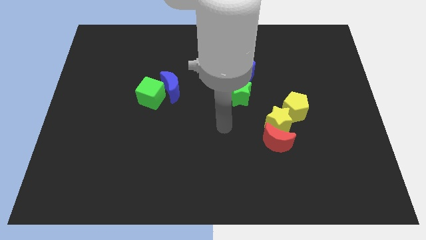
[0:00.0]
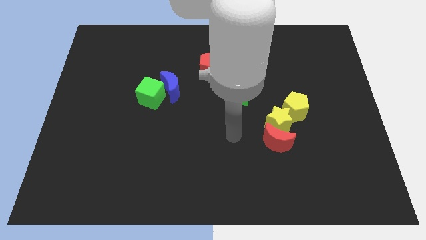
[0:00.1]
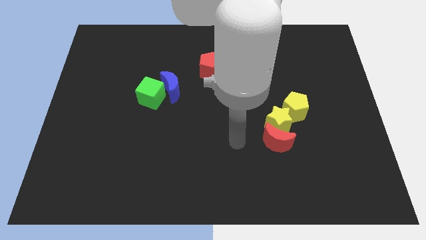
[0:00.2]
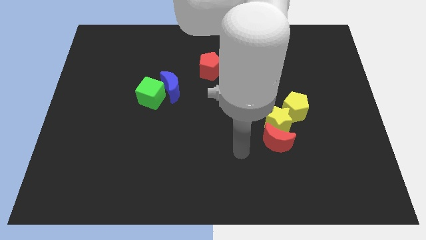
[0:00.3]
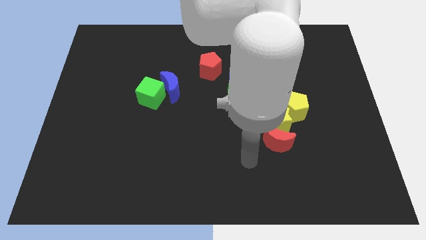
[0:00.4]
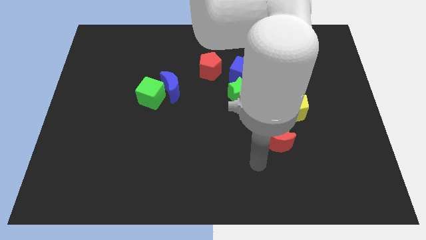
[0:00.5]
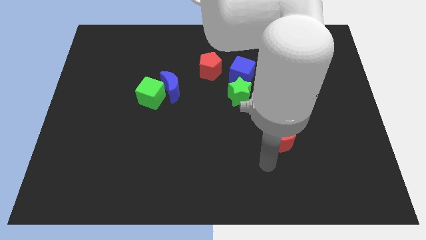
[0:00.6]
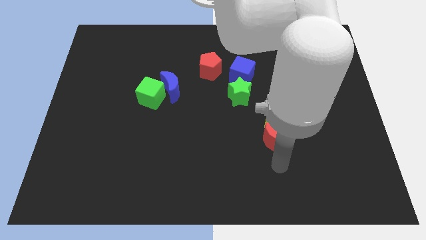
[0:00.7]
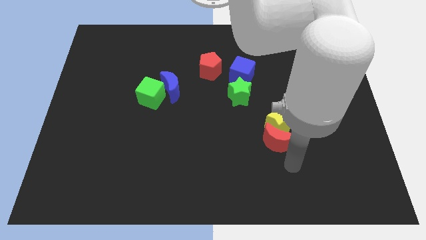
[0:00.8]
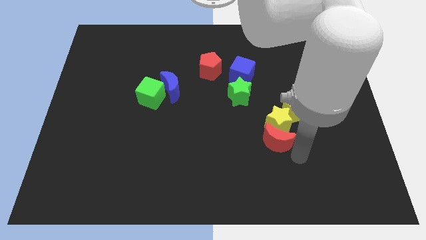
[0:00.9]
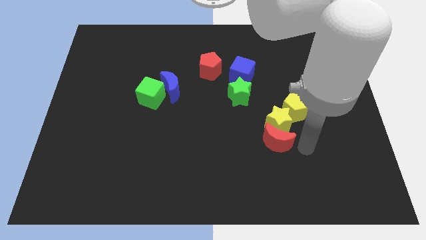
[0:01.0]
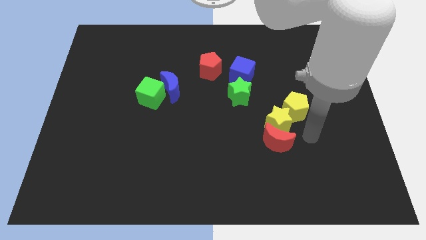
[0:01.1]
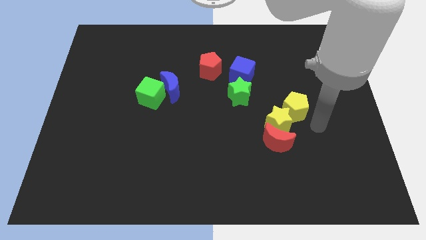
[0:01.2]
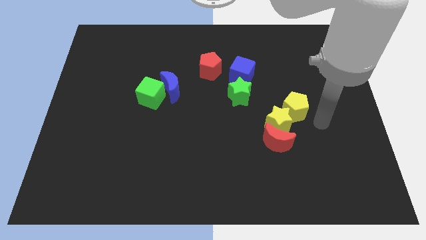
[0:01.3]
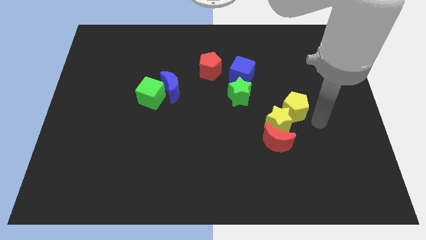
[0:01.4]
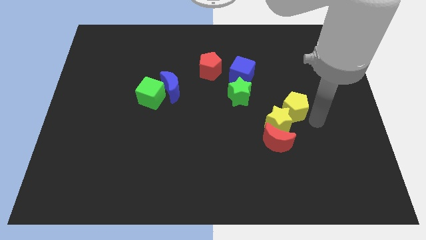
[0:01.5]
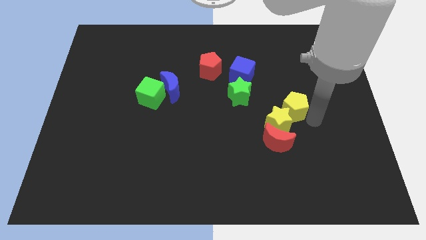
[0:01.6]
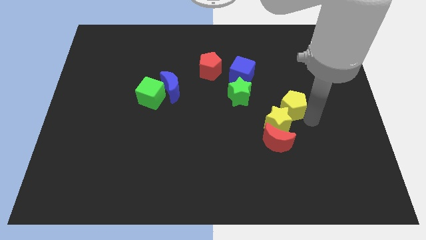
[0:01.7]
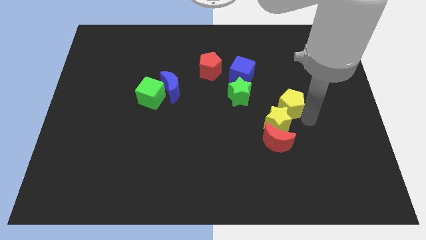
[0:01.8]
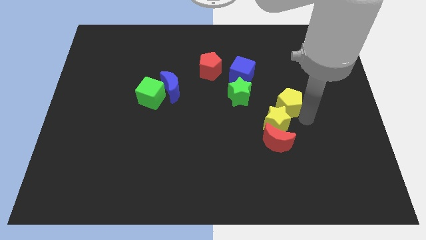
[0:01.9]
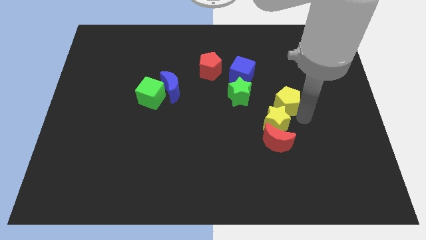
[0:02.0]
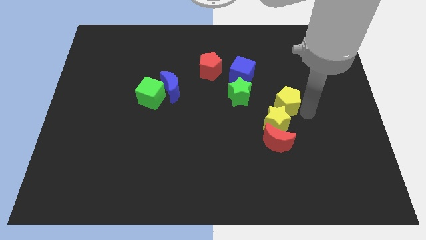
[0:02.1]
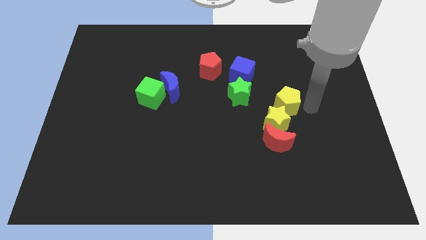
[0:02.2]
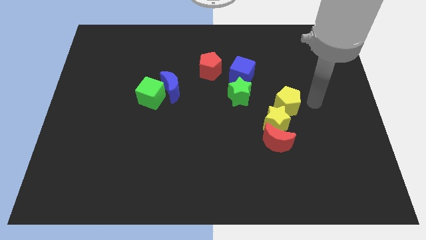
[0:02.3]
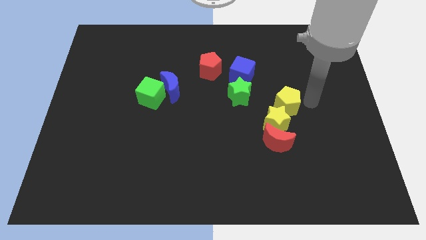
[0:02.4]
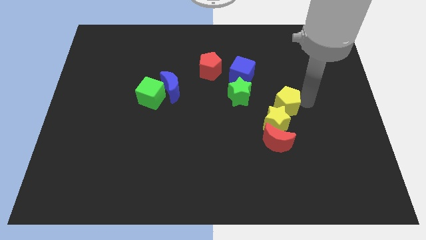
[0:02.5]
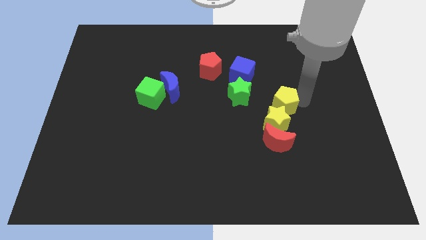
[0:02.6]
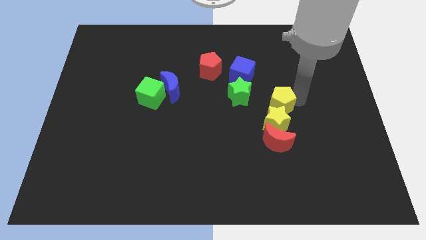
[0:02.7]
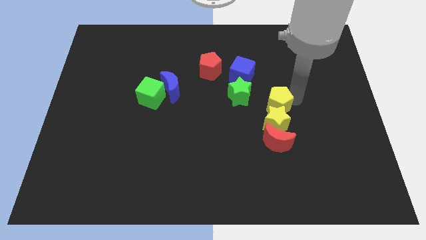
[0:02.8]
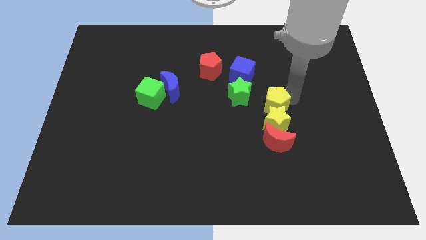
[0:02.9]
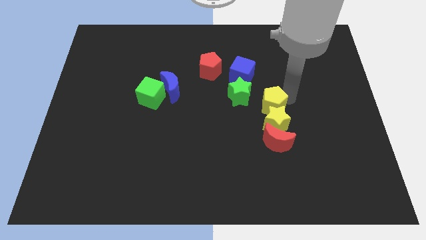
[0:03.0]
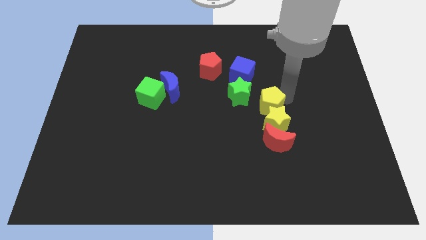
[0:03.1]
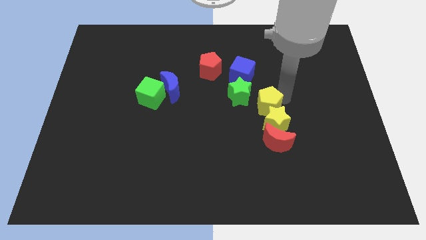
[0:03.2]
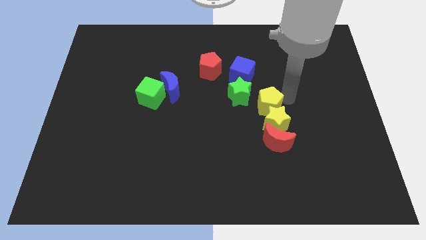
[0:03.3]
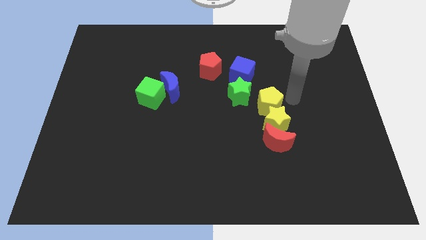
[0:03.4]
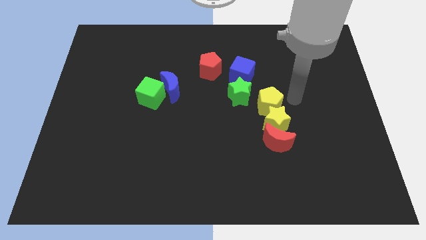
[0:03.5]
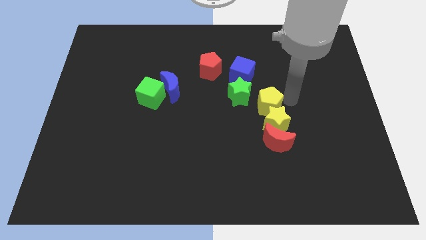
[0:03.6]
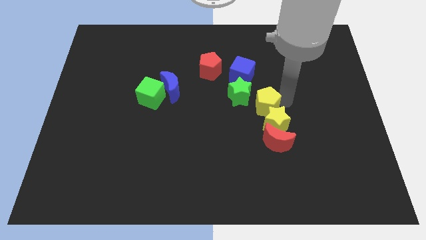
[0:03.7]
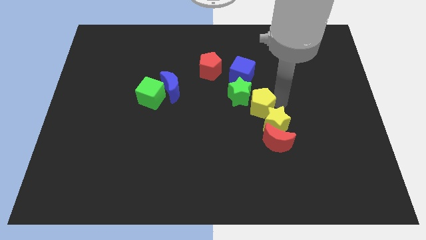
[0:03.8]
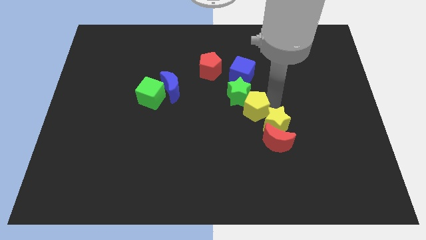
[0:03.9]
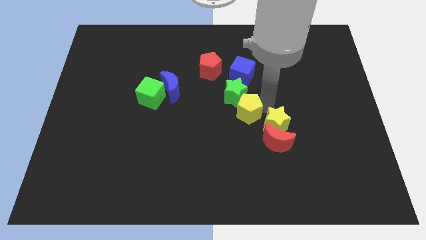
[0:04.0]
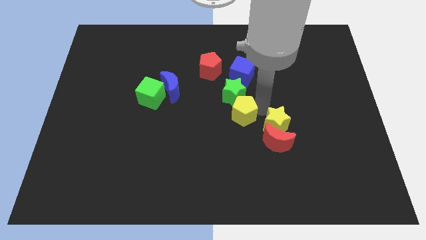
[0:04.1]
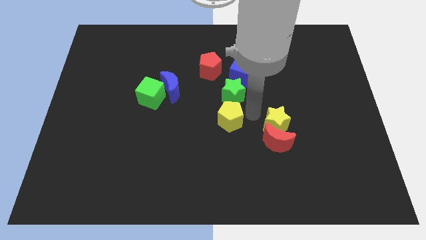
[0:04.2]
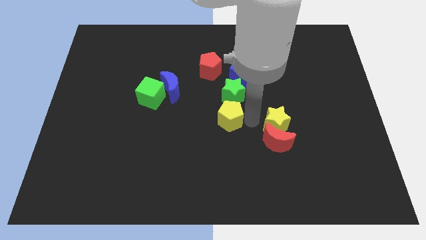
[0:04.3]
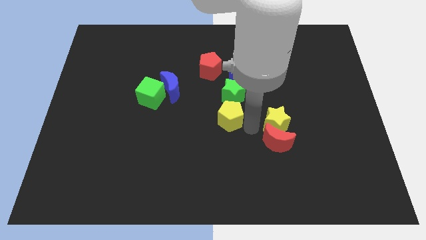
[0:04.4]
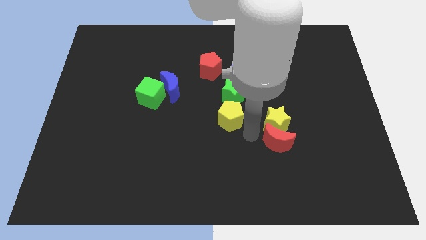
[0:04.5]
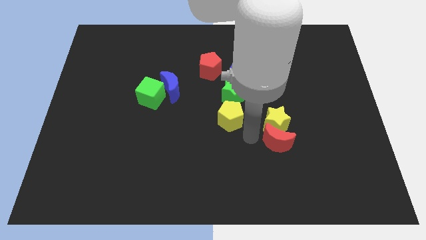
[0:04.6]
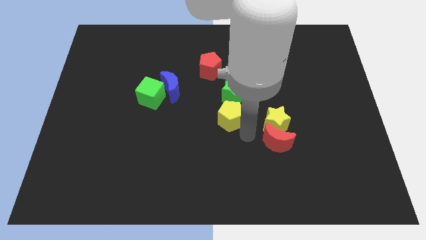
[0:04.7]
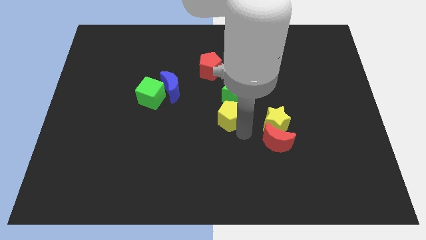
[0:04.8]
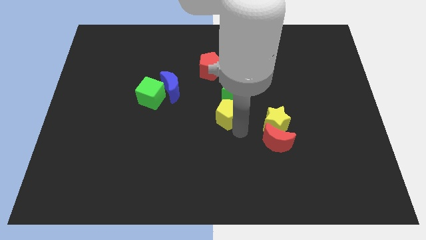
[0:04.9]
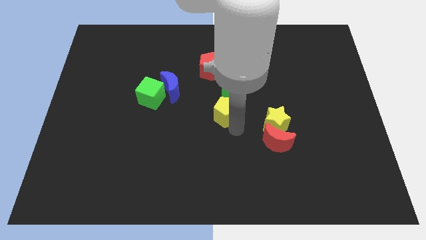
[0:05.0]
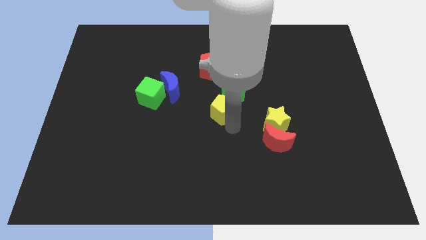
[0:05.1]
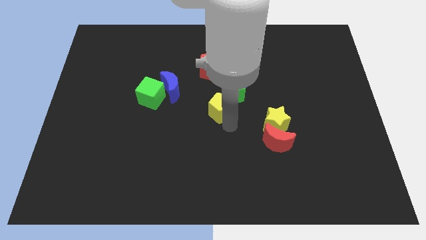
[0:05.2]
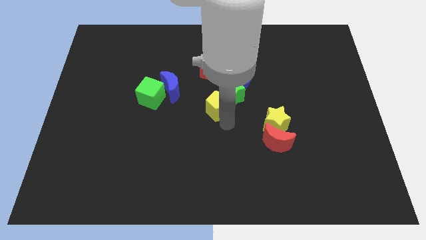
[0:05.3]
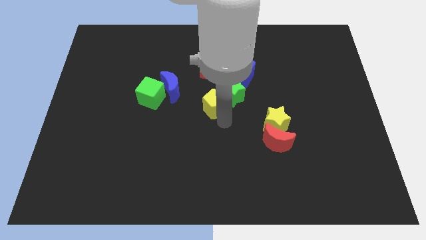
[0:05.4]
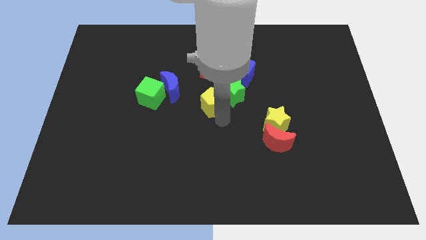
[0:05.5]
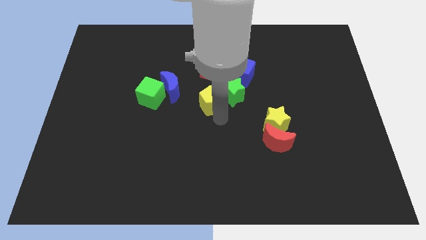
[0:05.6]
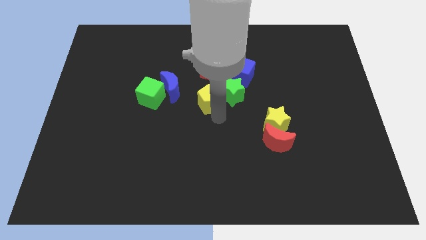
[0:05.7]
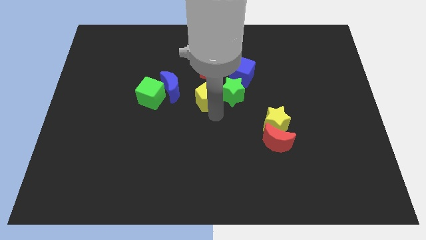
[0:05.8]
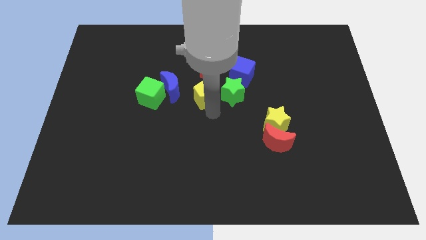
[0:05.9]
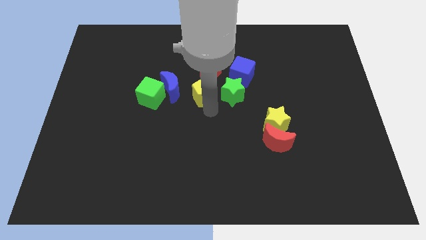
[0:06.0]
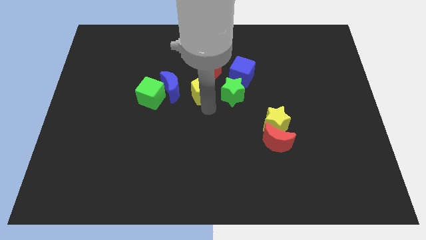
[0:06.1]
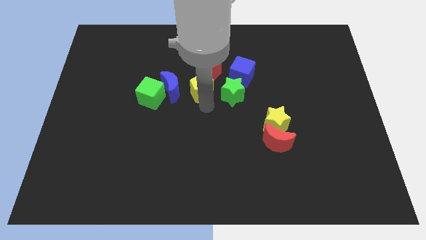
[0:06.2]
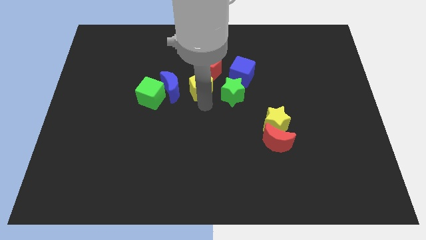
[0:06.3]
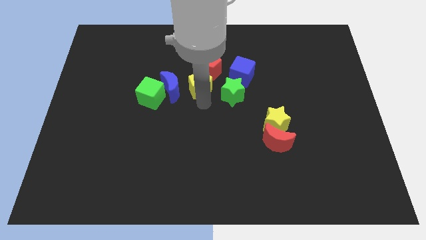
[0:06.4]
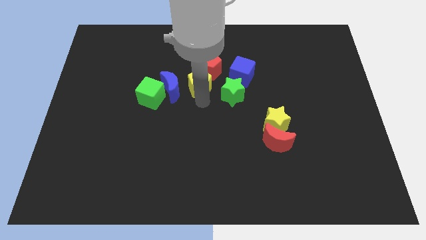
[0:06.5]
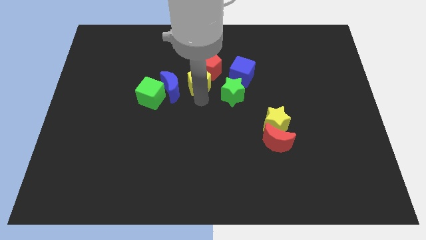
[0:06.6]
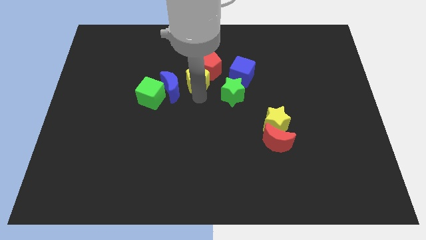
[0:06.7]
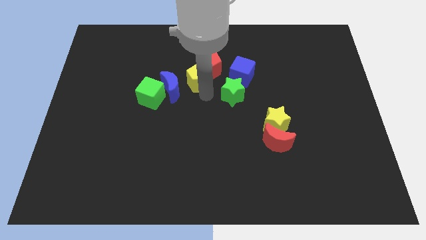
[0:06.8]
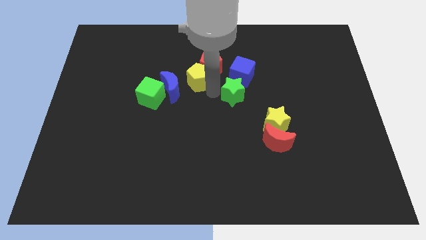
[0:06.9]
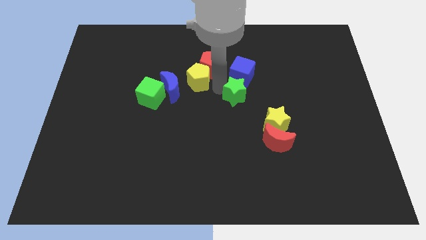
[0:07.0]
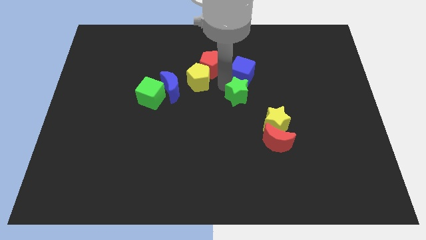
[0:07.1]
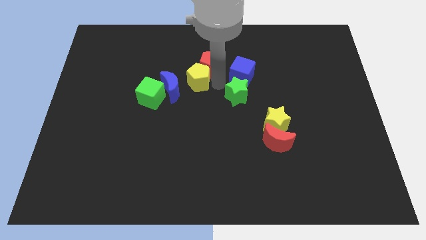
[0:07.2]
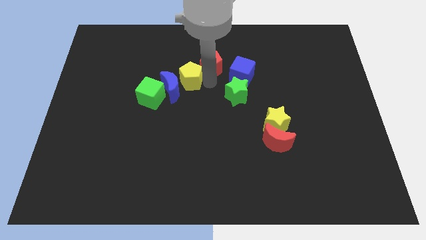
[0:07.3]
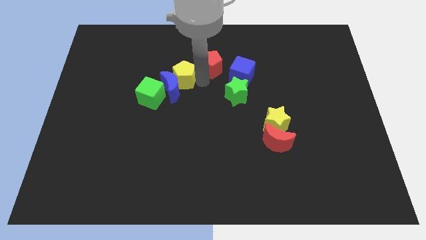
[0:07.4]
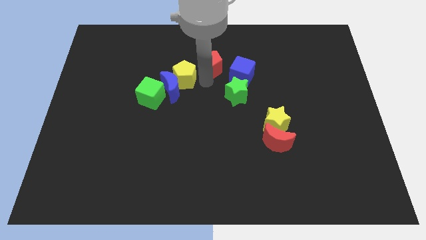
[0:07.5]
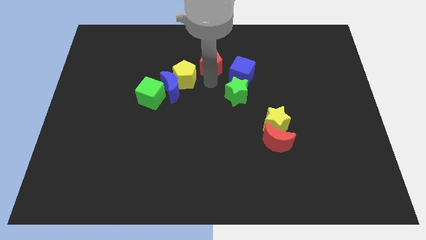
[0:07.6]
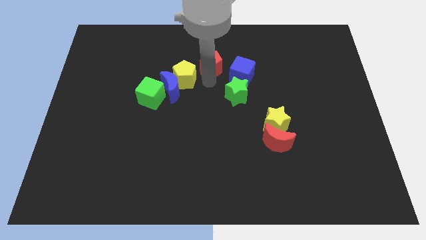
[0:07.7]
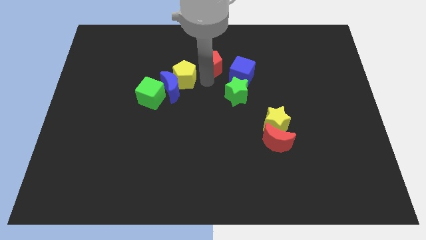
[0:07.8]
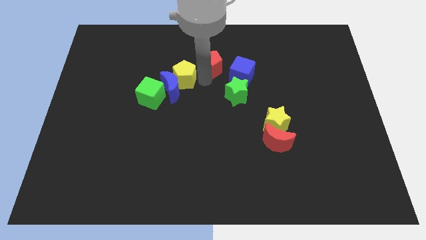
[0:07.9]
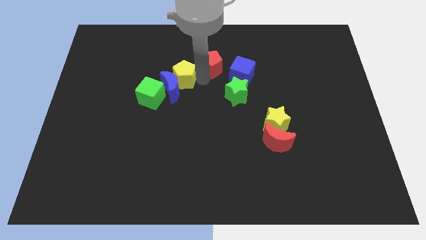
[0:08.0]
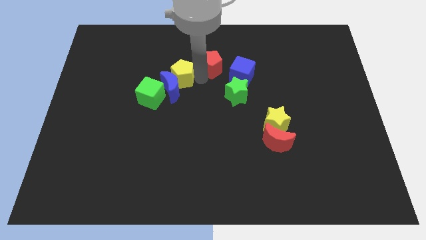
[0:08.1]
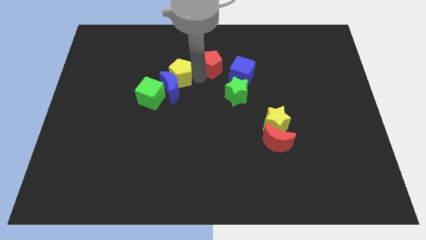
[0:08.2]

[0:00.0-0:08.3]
move the yellow pentagon diagonally up and to the left of the blue moon
